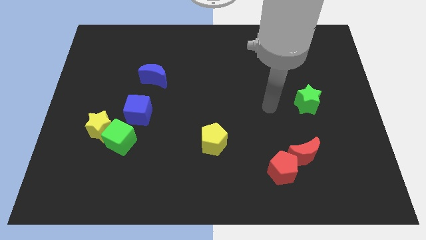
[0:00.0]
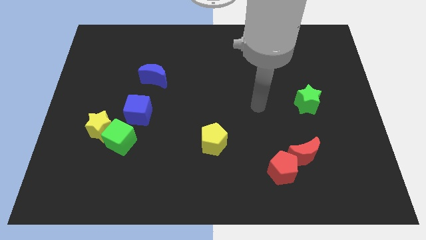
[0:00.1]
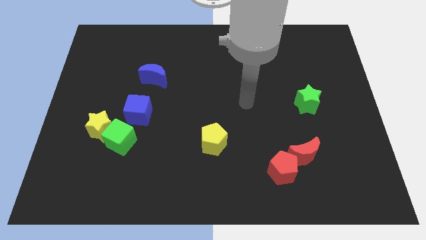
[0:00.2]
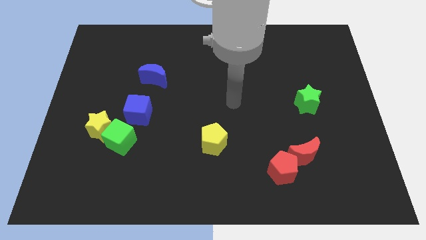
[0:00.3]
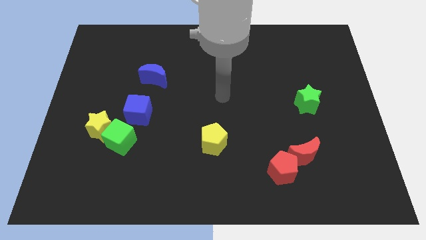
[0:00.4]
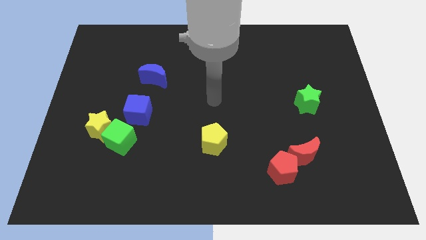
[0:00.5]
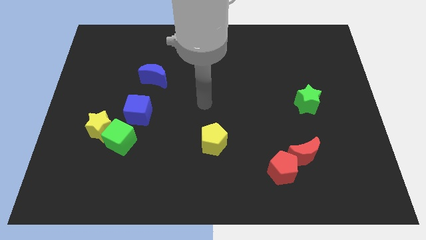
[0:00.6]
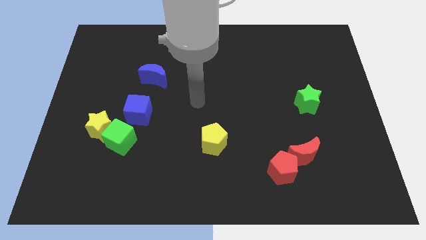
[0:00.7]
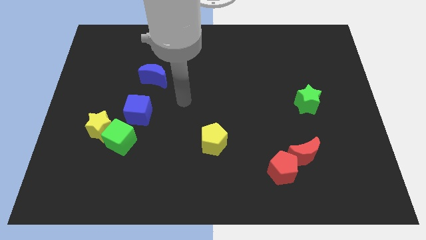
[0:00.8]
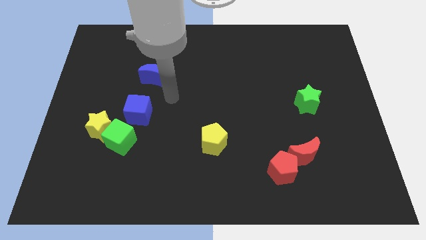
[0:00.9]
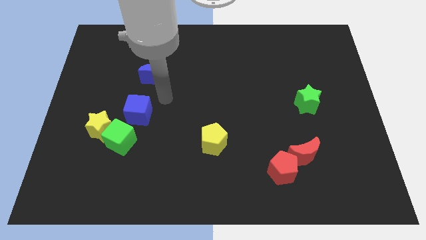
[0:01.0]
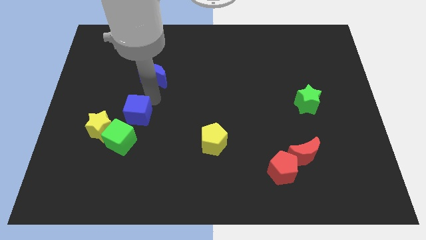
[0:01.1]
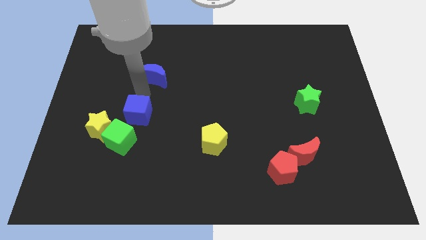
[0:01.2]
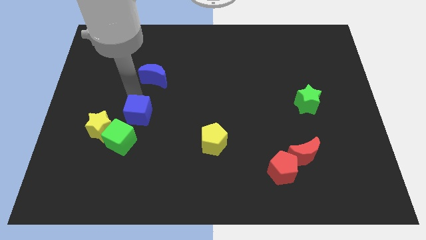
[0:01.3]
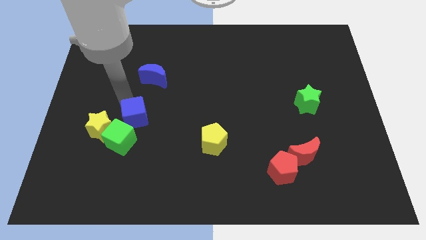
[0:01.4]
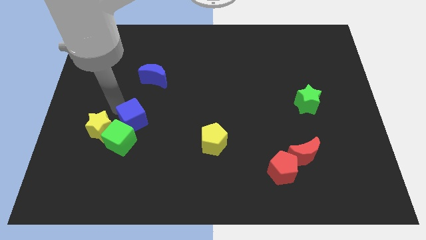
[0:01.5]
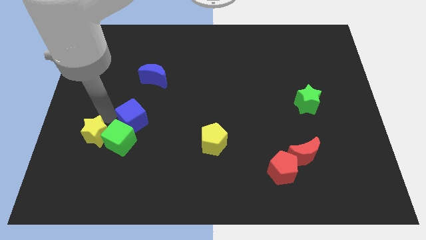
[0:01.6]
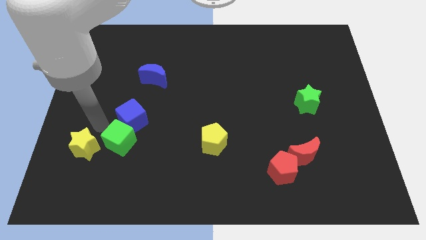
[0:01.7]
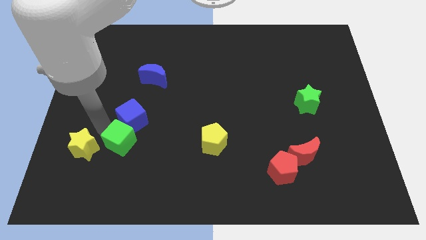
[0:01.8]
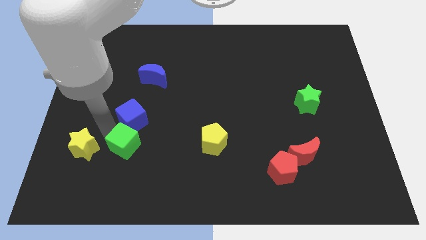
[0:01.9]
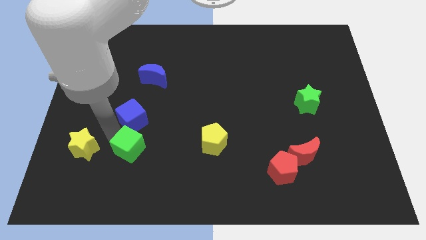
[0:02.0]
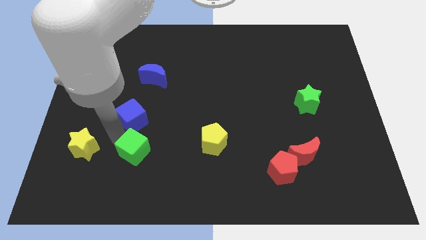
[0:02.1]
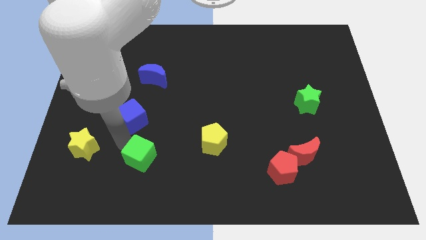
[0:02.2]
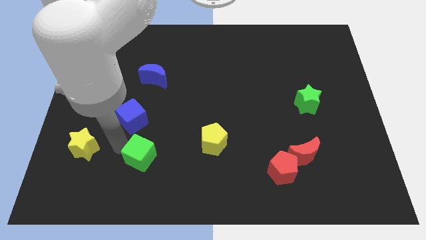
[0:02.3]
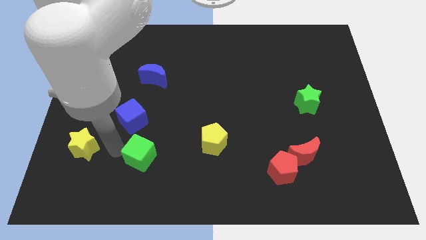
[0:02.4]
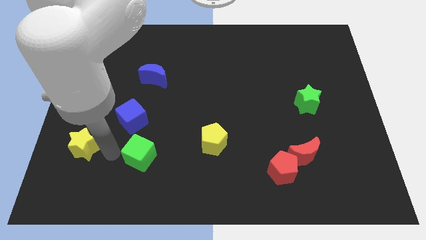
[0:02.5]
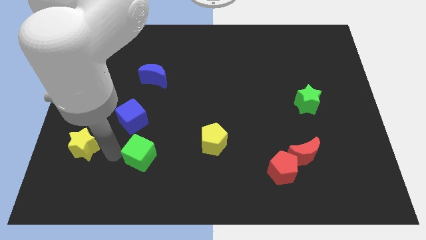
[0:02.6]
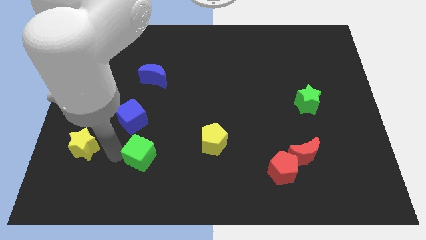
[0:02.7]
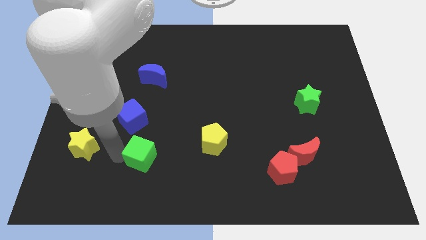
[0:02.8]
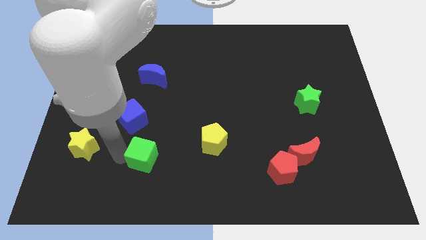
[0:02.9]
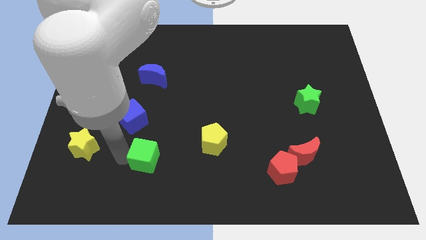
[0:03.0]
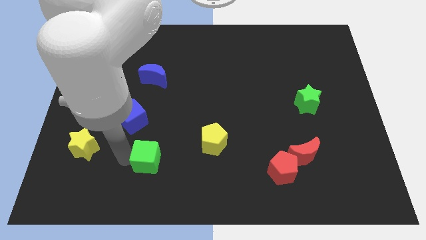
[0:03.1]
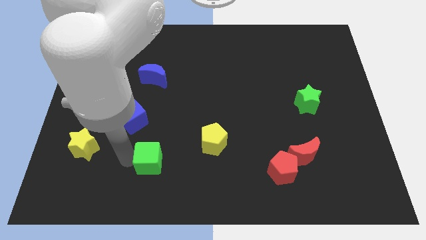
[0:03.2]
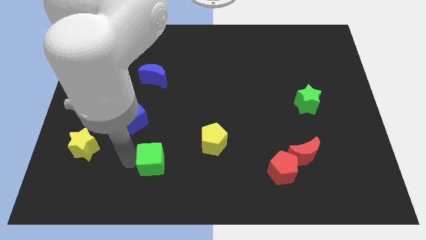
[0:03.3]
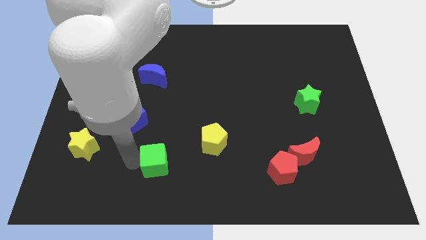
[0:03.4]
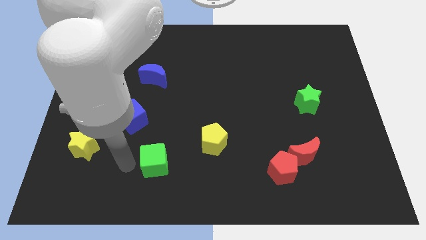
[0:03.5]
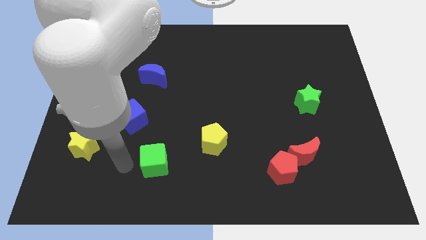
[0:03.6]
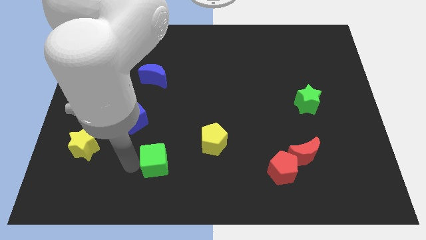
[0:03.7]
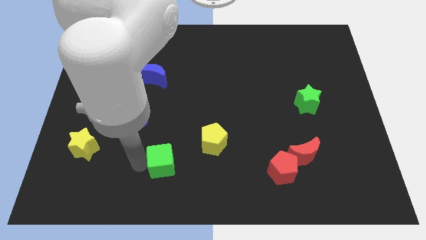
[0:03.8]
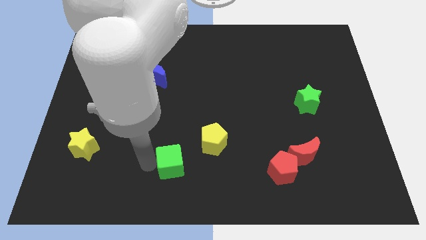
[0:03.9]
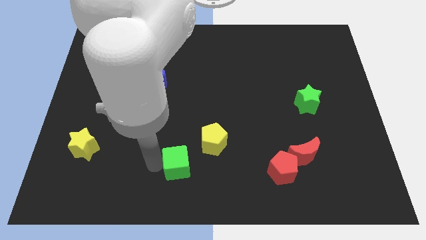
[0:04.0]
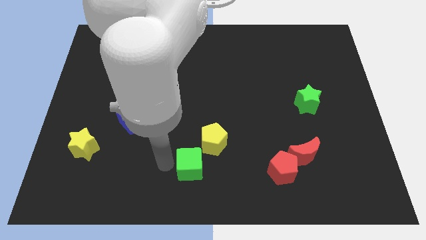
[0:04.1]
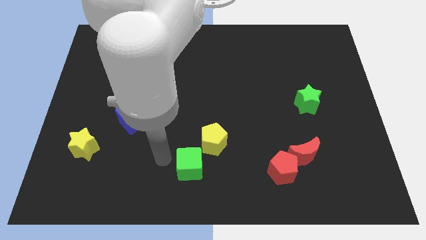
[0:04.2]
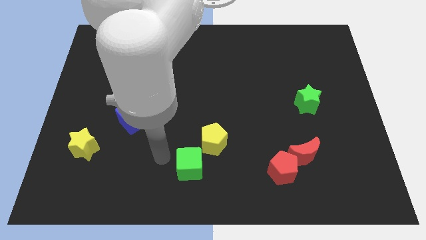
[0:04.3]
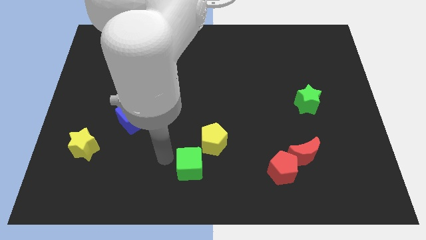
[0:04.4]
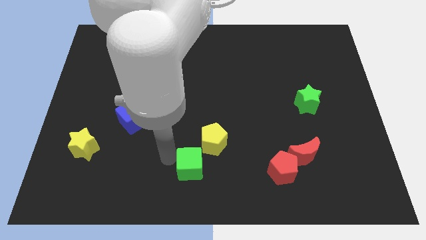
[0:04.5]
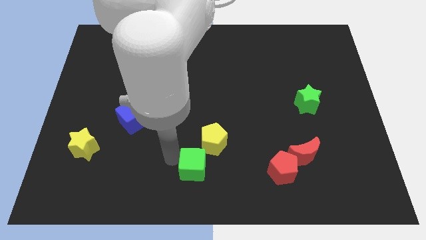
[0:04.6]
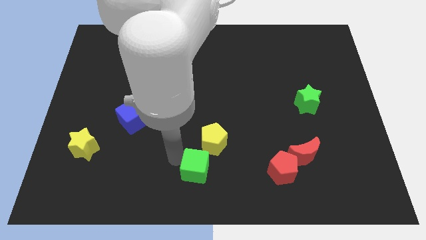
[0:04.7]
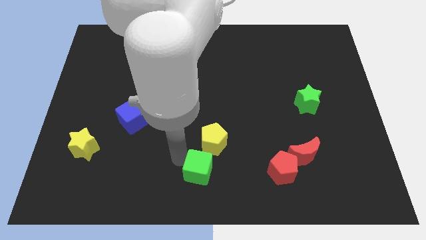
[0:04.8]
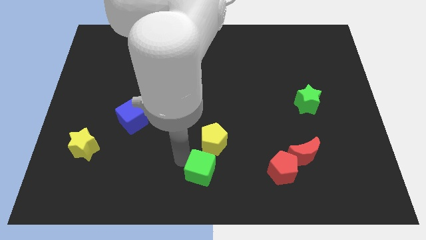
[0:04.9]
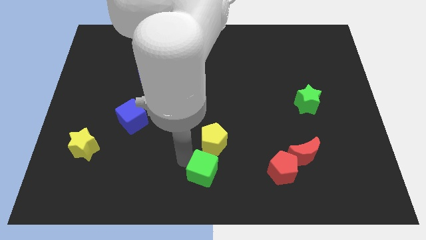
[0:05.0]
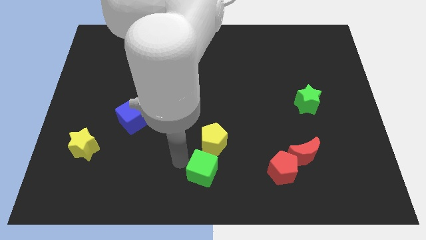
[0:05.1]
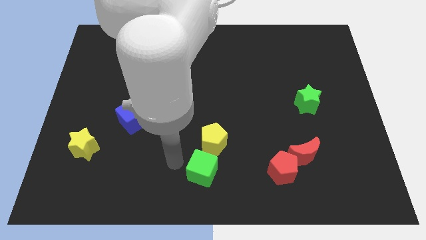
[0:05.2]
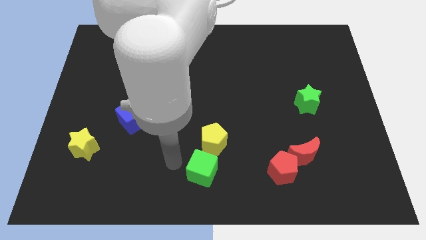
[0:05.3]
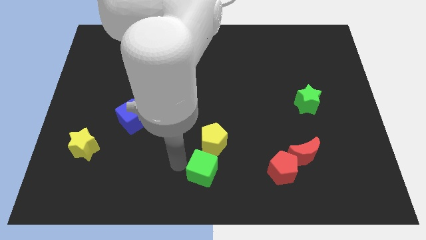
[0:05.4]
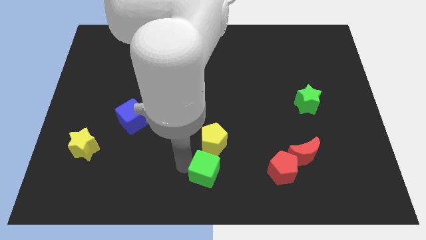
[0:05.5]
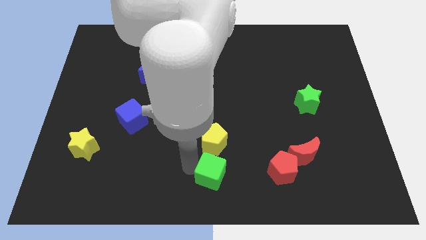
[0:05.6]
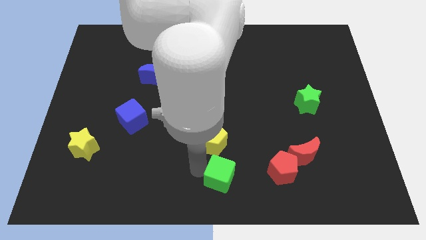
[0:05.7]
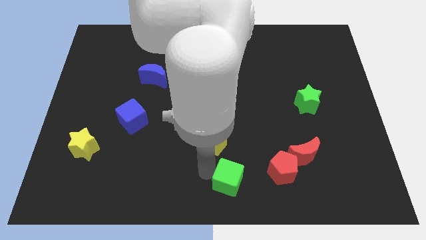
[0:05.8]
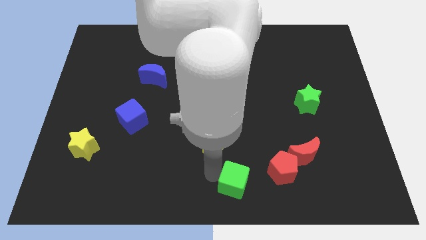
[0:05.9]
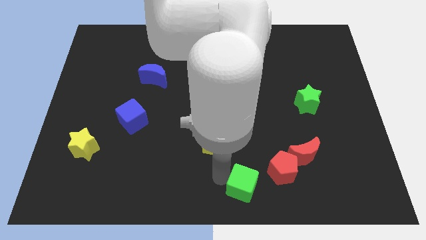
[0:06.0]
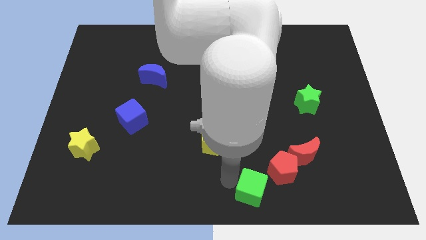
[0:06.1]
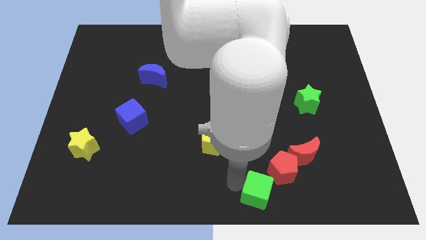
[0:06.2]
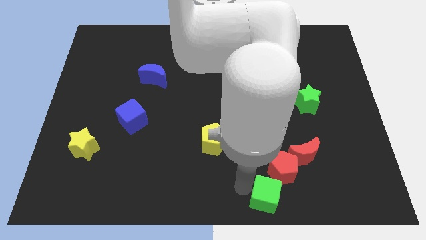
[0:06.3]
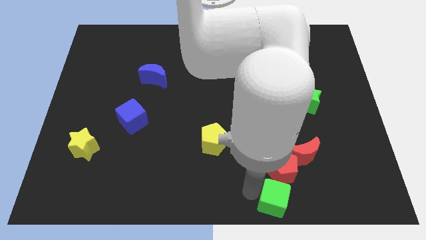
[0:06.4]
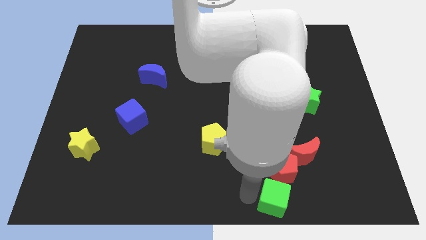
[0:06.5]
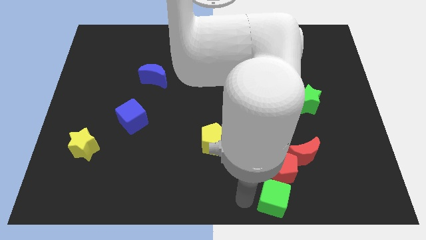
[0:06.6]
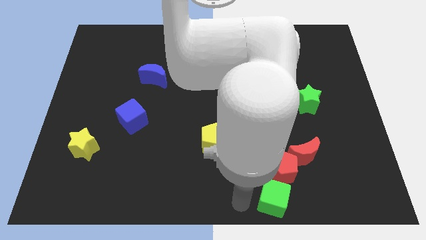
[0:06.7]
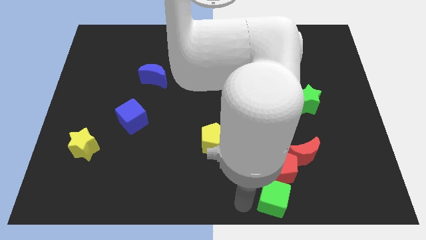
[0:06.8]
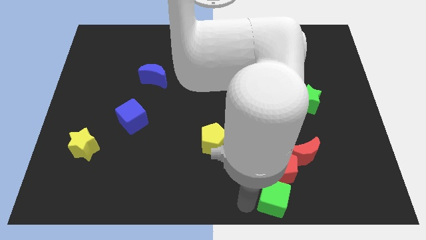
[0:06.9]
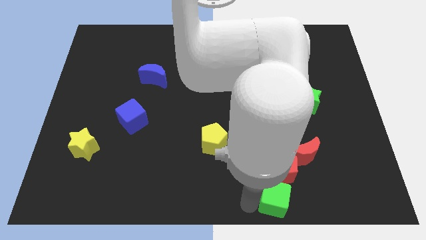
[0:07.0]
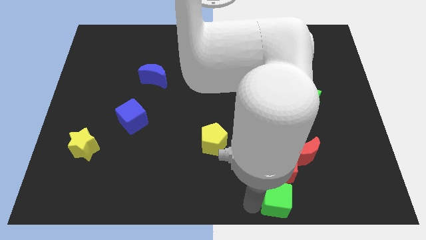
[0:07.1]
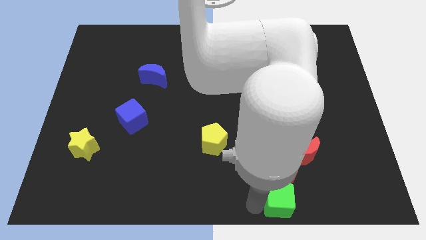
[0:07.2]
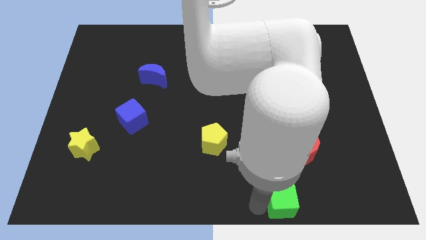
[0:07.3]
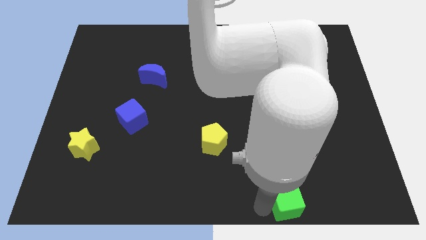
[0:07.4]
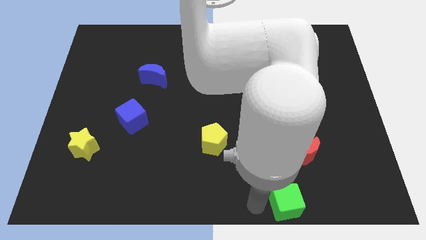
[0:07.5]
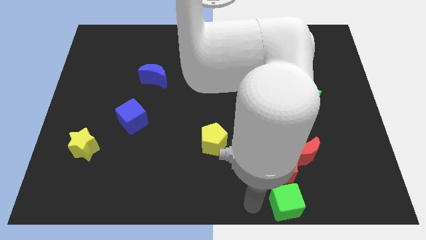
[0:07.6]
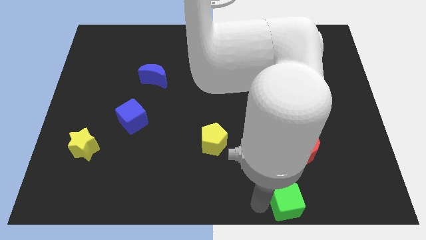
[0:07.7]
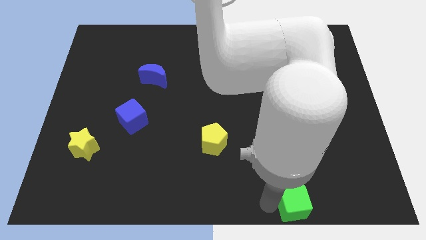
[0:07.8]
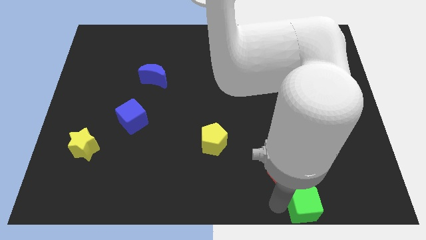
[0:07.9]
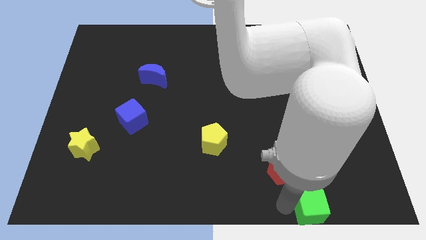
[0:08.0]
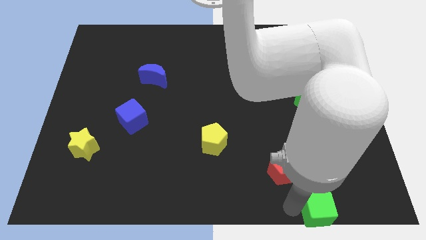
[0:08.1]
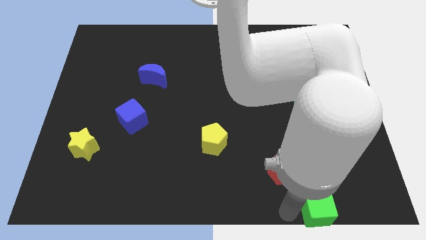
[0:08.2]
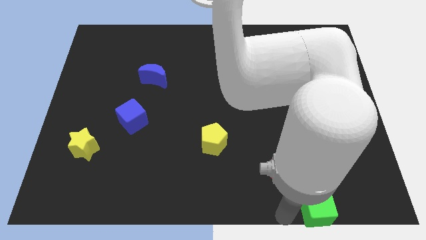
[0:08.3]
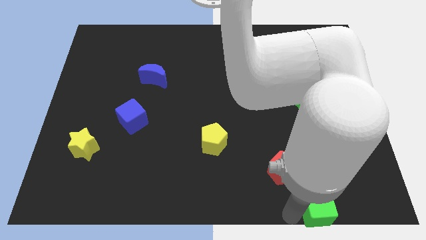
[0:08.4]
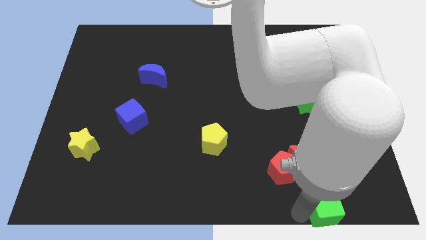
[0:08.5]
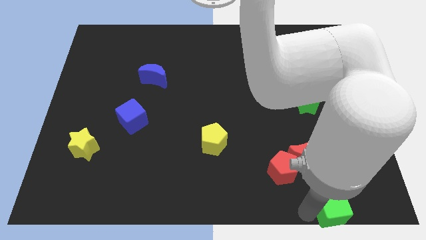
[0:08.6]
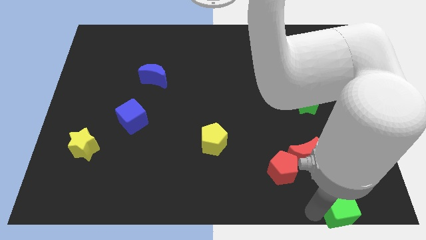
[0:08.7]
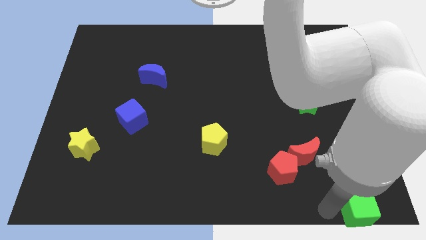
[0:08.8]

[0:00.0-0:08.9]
slide the green cube to the bottom right of the board
